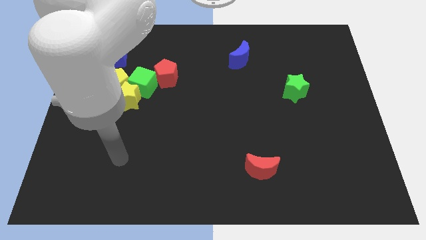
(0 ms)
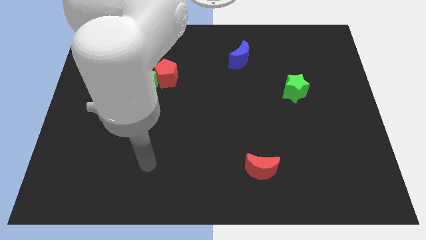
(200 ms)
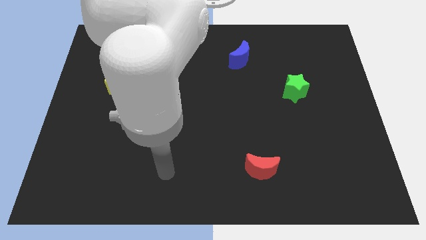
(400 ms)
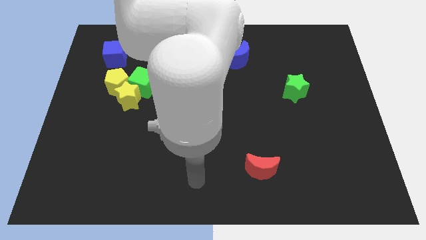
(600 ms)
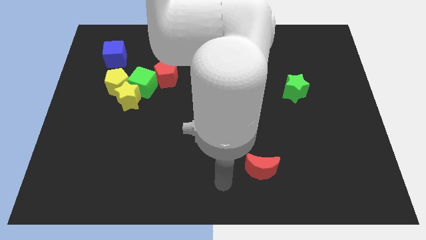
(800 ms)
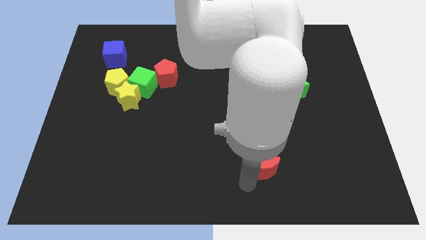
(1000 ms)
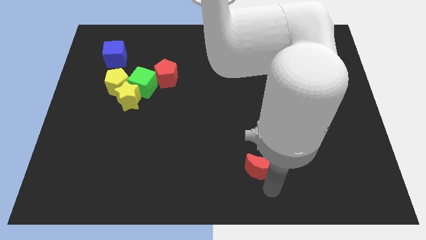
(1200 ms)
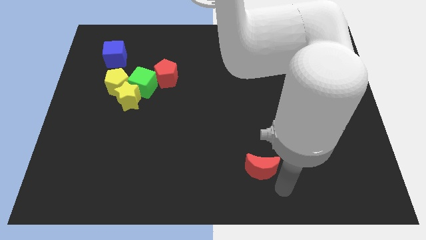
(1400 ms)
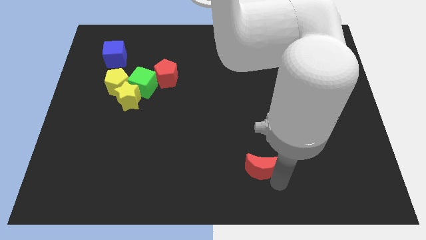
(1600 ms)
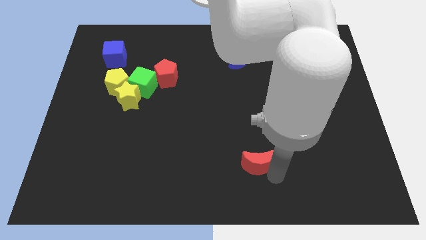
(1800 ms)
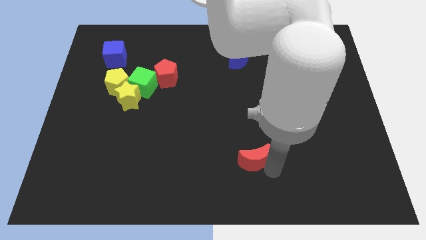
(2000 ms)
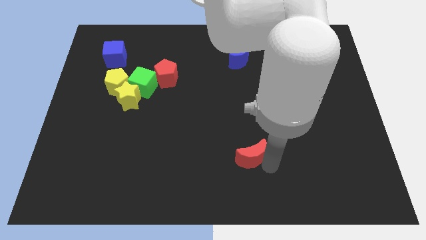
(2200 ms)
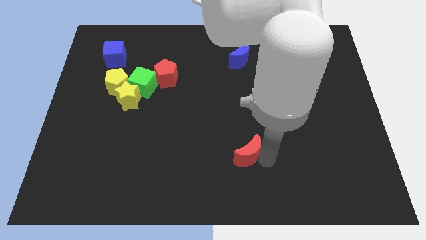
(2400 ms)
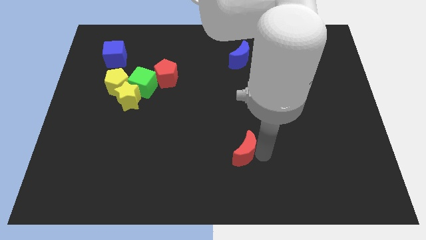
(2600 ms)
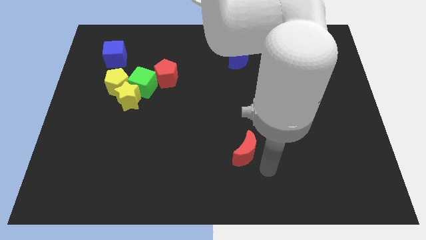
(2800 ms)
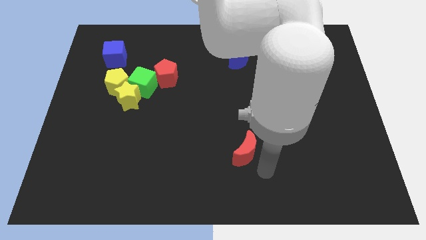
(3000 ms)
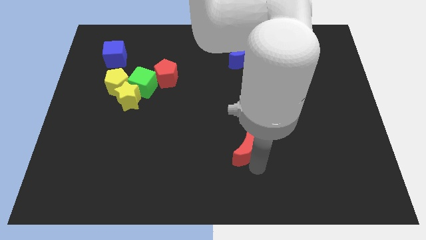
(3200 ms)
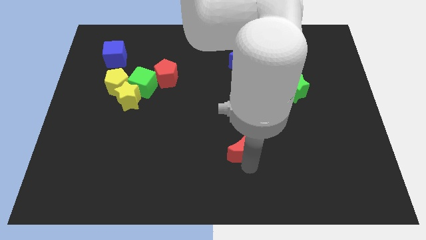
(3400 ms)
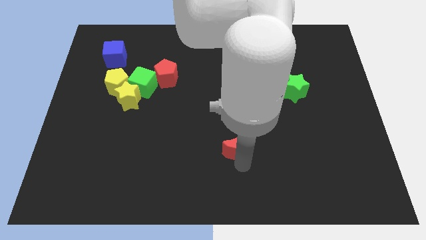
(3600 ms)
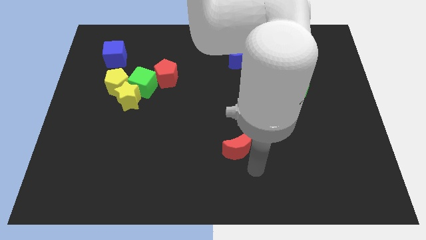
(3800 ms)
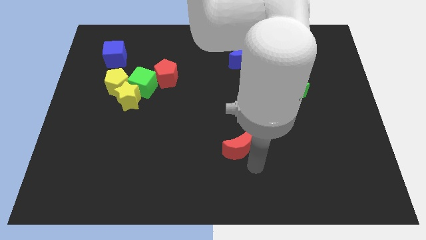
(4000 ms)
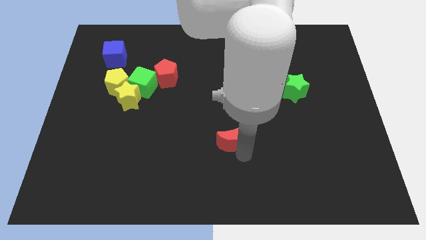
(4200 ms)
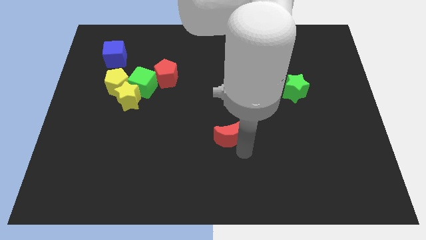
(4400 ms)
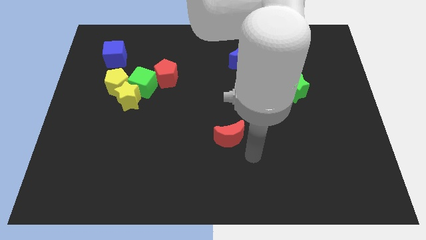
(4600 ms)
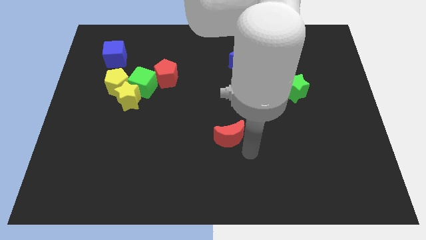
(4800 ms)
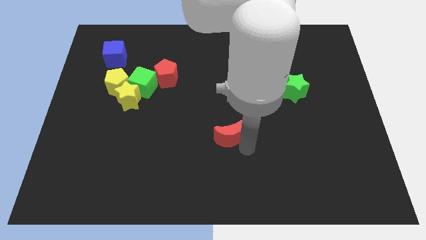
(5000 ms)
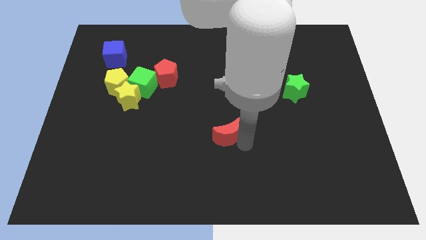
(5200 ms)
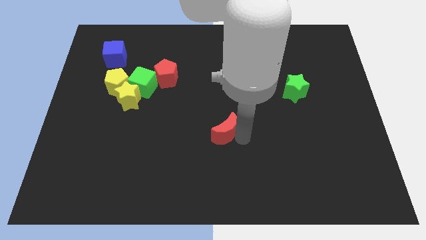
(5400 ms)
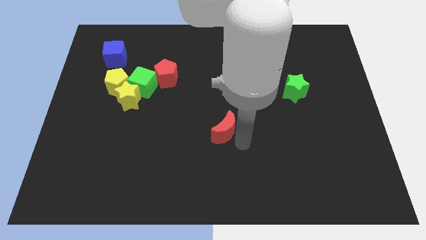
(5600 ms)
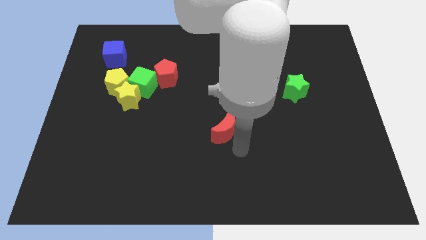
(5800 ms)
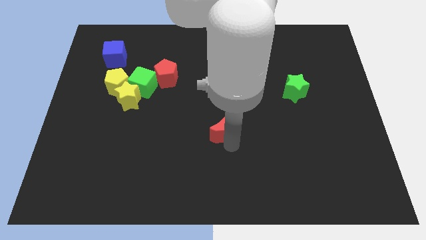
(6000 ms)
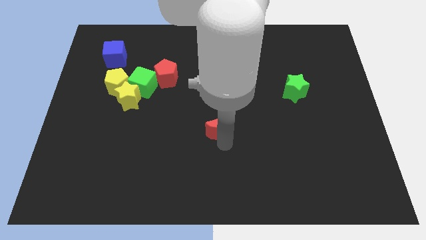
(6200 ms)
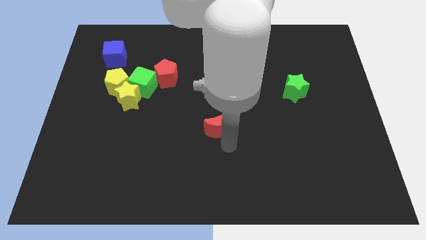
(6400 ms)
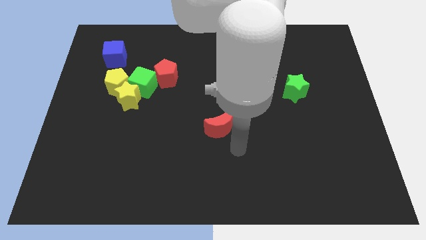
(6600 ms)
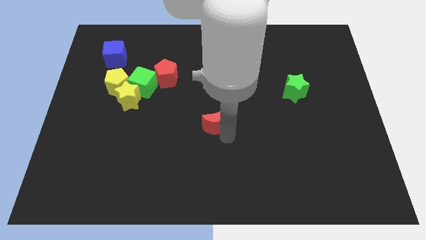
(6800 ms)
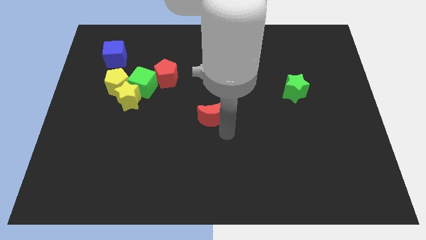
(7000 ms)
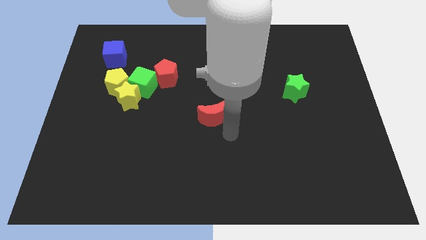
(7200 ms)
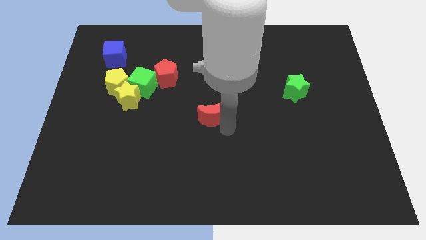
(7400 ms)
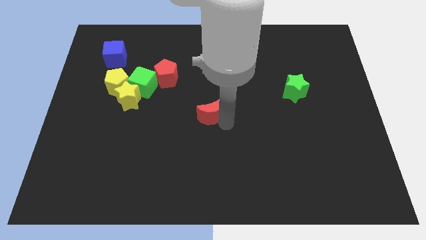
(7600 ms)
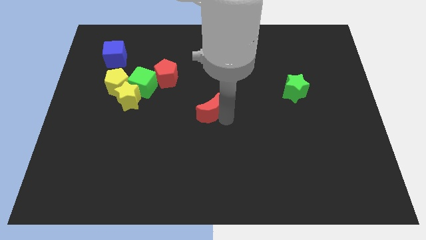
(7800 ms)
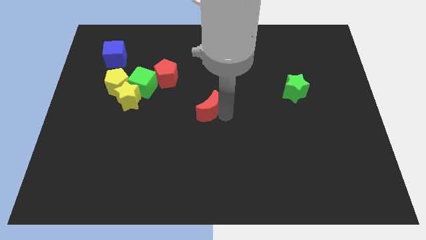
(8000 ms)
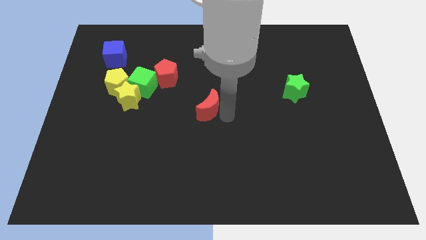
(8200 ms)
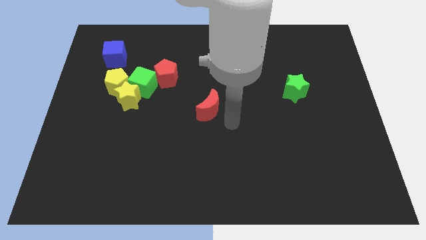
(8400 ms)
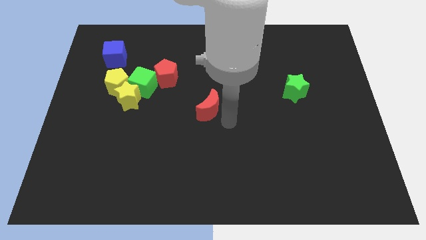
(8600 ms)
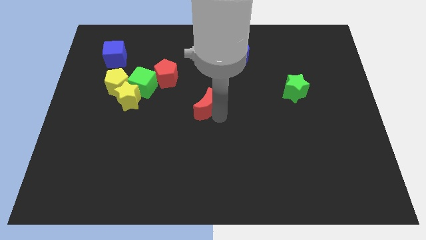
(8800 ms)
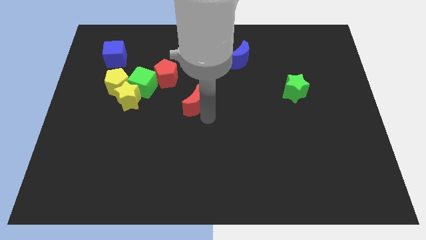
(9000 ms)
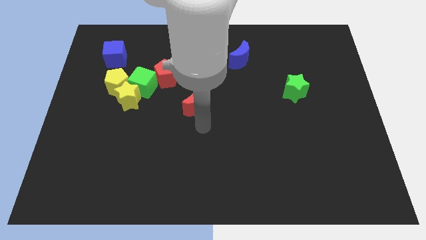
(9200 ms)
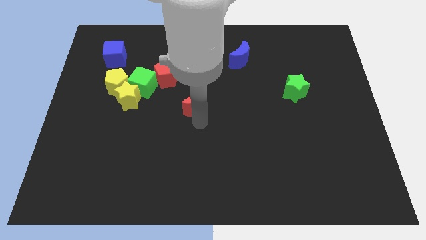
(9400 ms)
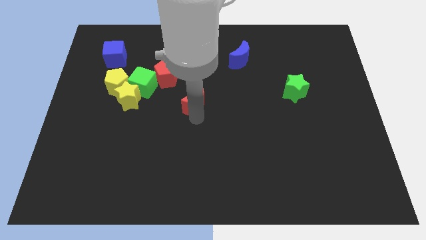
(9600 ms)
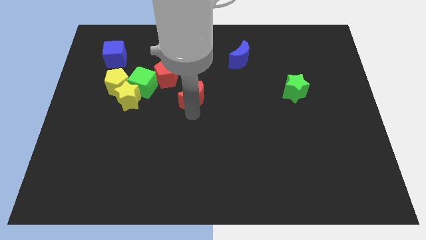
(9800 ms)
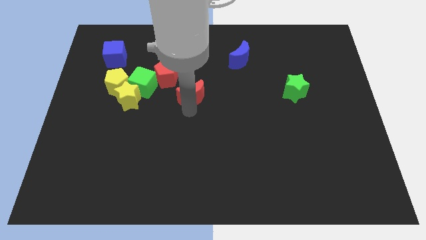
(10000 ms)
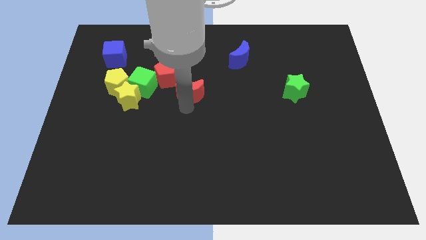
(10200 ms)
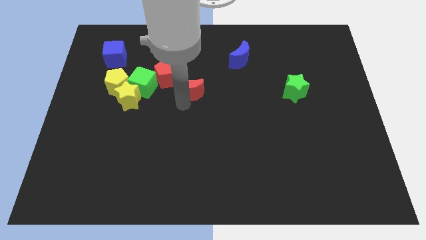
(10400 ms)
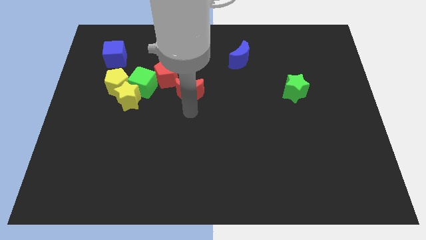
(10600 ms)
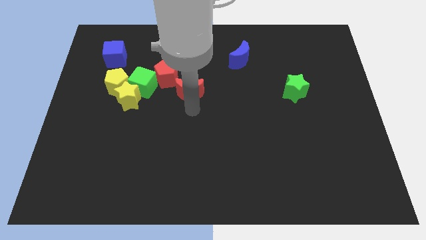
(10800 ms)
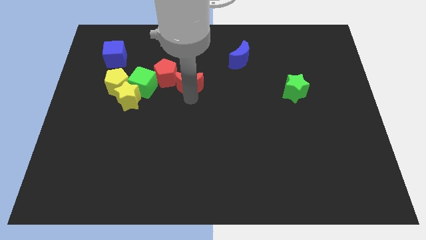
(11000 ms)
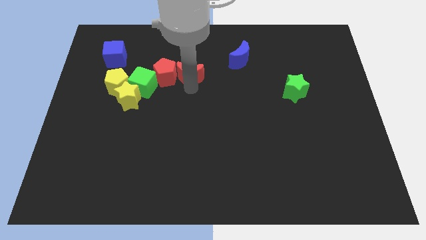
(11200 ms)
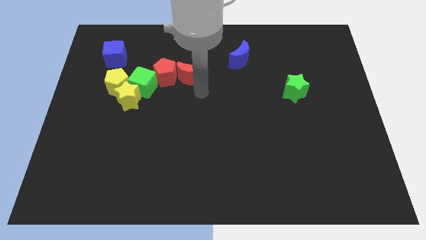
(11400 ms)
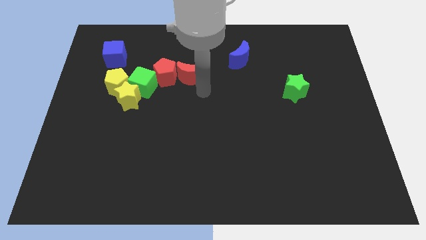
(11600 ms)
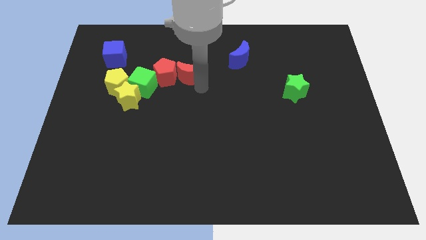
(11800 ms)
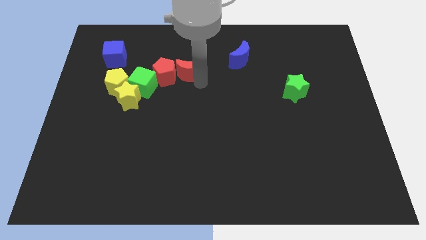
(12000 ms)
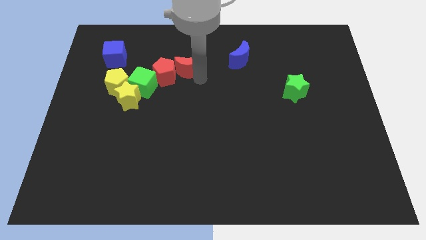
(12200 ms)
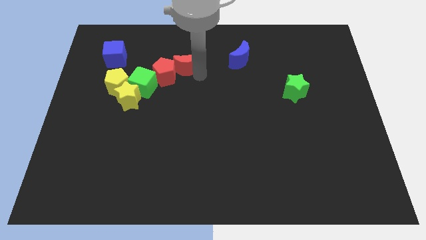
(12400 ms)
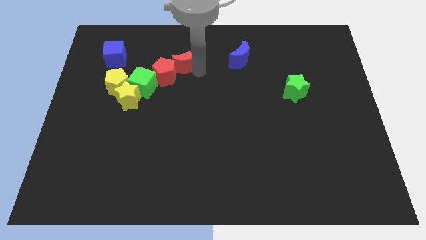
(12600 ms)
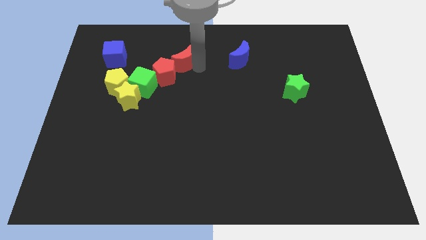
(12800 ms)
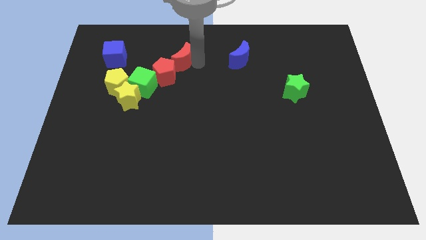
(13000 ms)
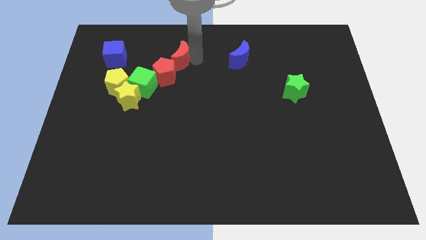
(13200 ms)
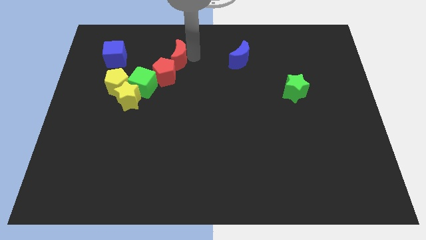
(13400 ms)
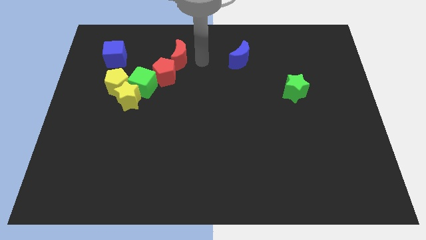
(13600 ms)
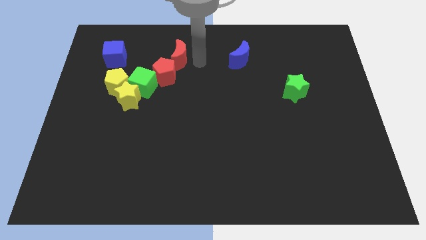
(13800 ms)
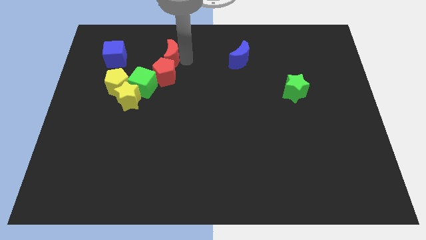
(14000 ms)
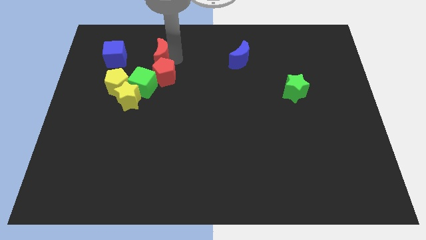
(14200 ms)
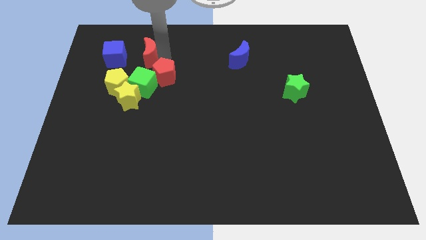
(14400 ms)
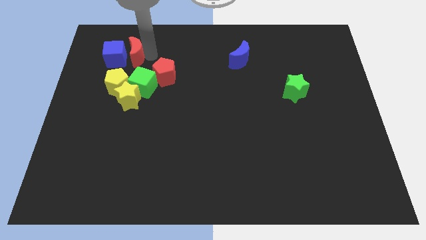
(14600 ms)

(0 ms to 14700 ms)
put the red moon next to the blue cube
